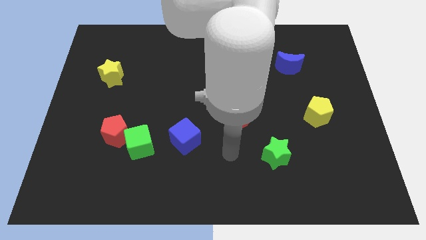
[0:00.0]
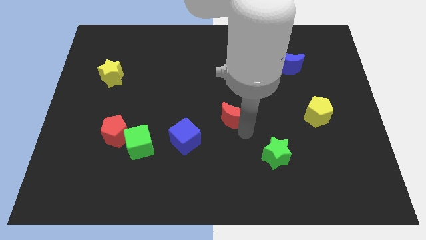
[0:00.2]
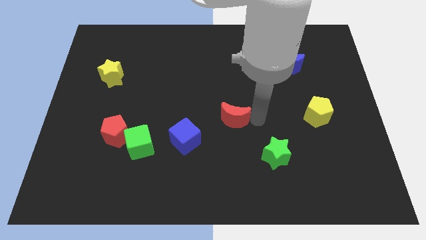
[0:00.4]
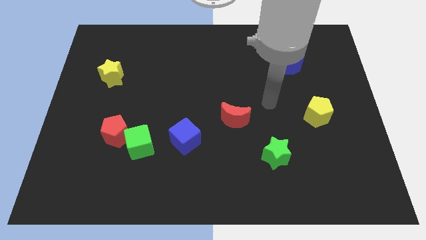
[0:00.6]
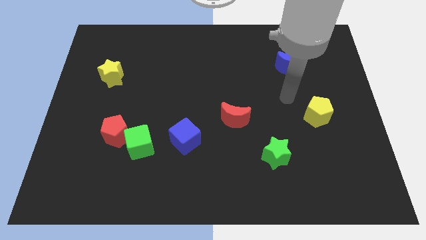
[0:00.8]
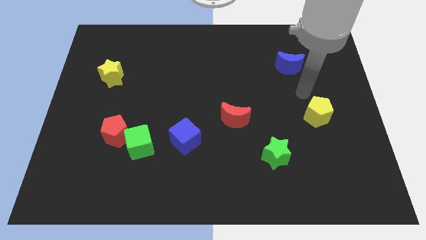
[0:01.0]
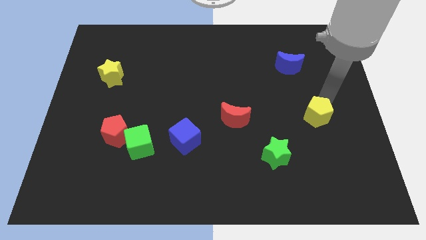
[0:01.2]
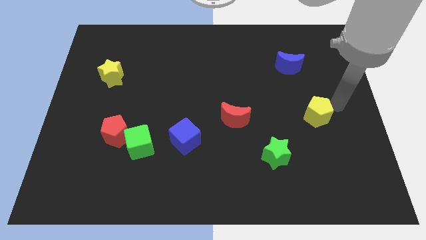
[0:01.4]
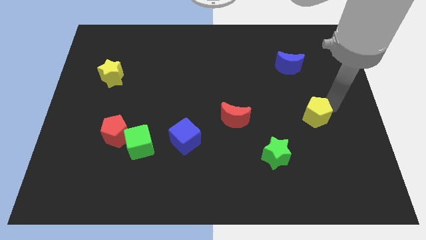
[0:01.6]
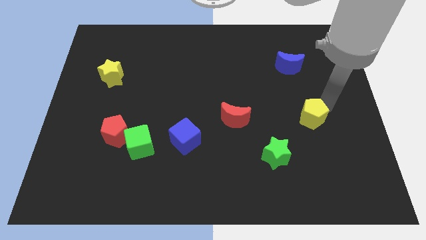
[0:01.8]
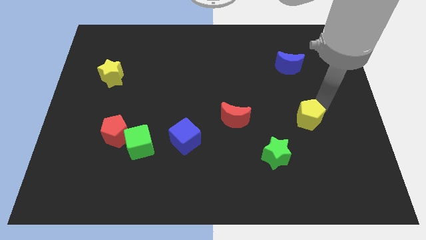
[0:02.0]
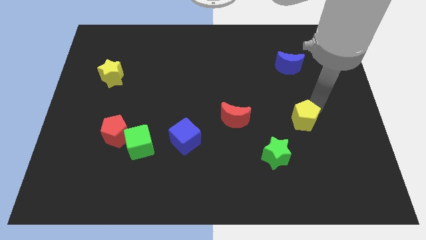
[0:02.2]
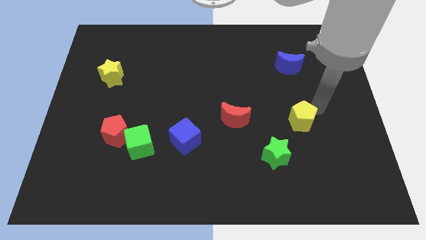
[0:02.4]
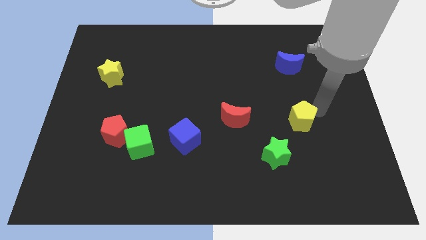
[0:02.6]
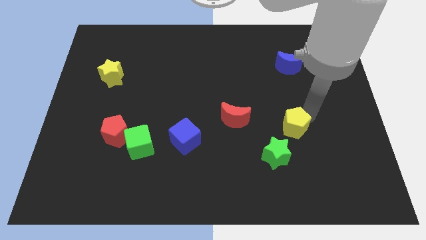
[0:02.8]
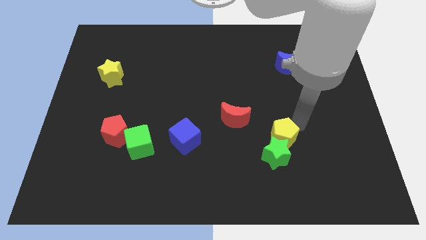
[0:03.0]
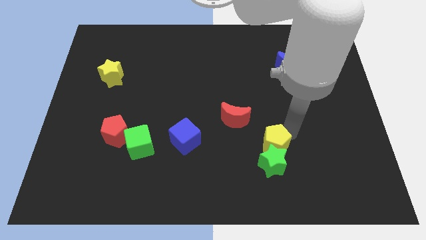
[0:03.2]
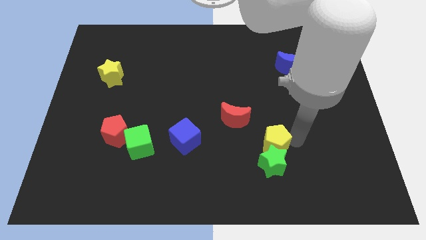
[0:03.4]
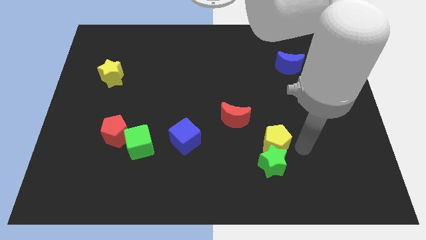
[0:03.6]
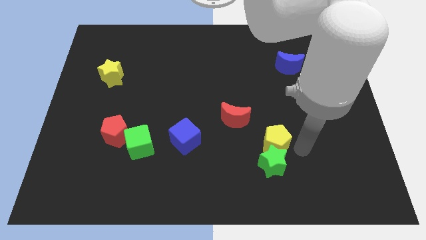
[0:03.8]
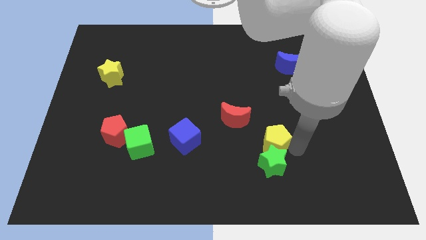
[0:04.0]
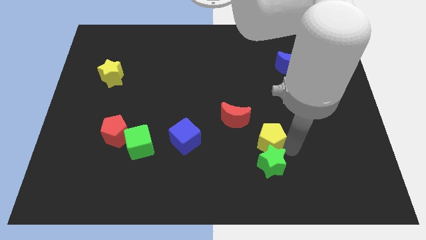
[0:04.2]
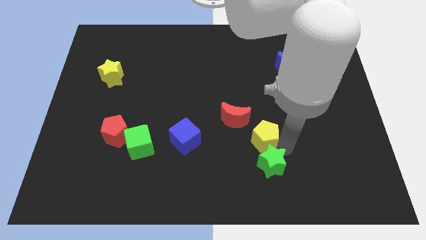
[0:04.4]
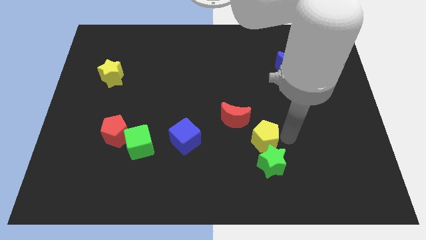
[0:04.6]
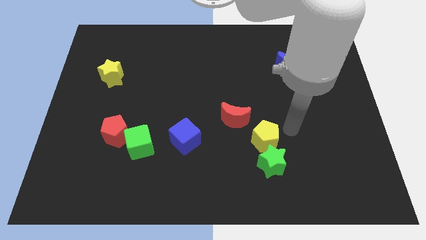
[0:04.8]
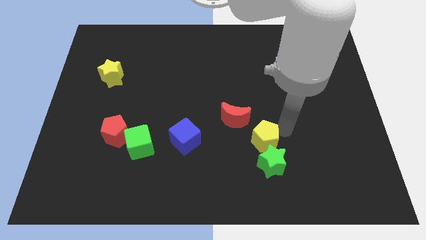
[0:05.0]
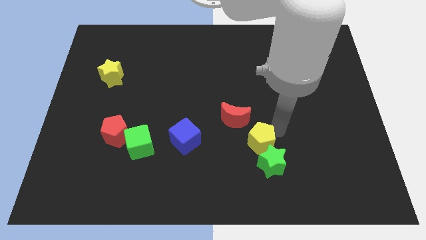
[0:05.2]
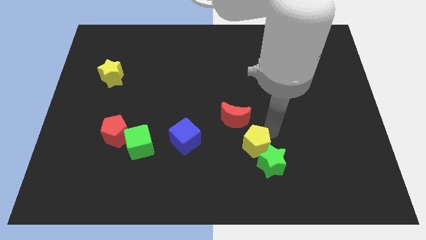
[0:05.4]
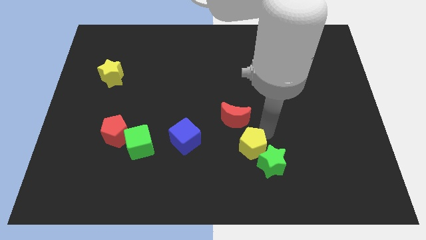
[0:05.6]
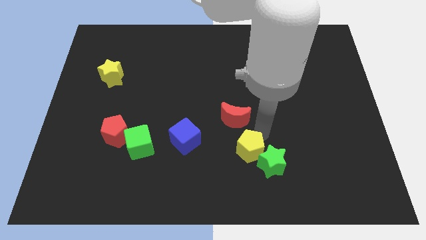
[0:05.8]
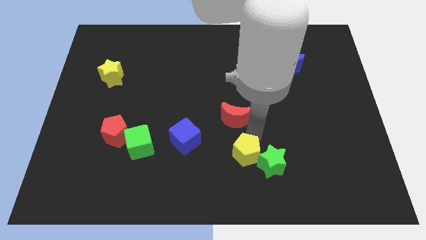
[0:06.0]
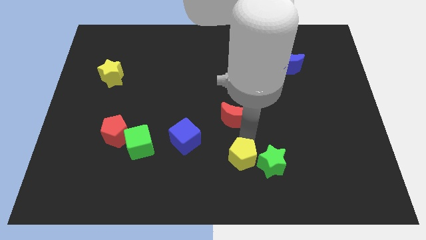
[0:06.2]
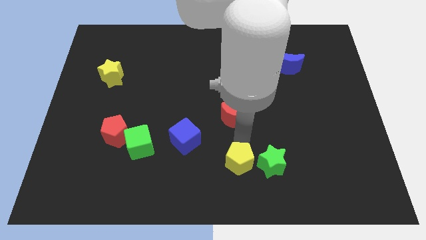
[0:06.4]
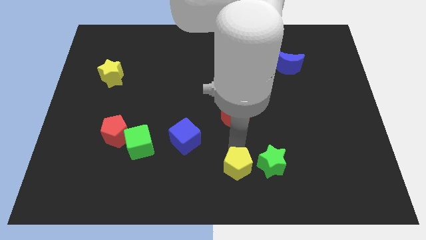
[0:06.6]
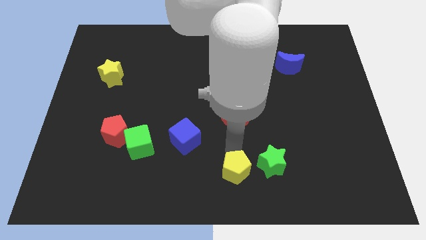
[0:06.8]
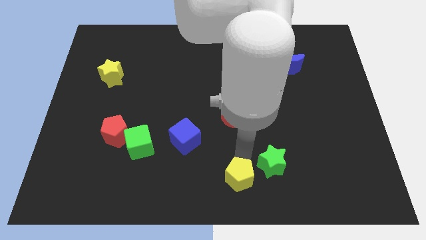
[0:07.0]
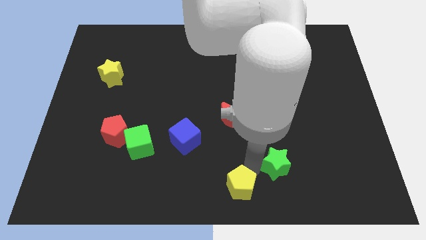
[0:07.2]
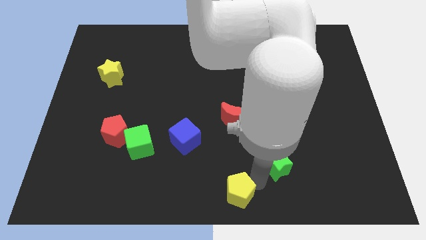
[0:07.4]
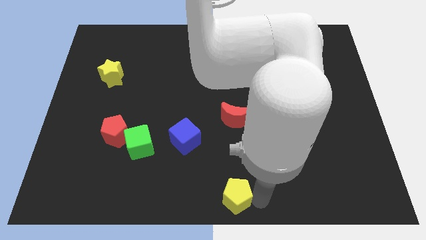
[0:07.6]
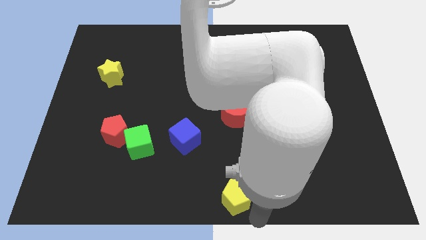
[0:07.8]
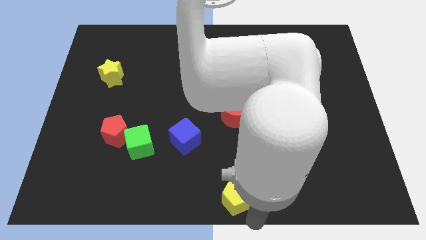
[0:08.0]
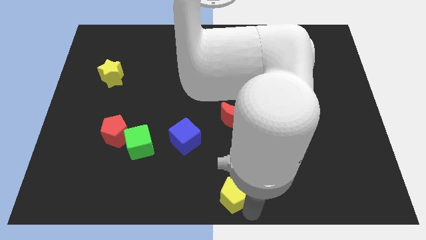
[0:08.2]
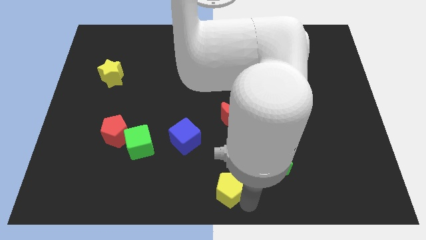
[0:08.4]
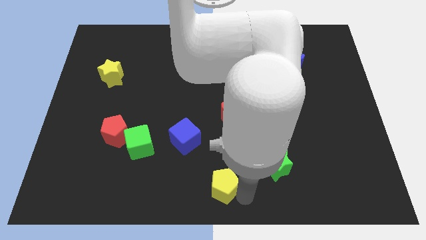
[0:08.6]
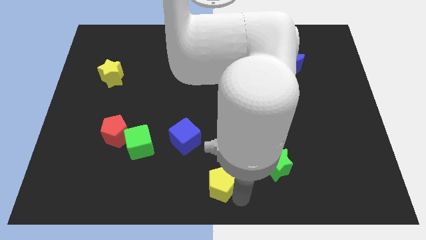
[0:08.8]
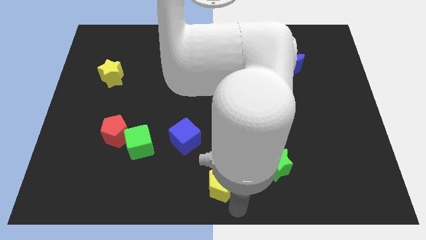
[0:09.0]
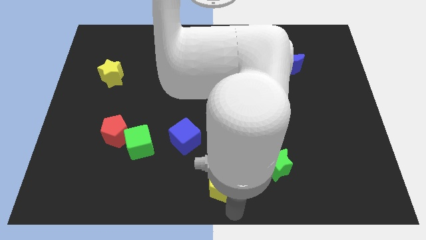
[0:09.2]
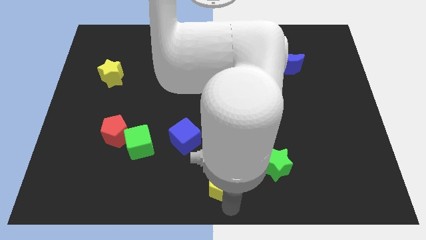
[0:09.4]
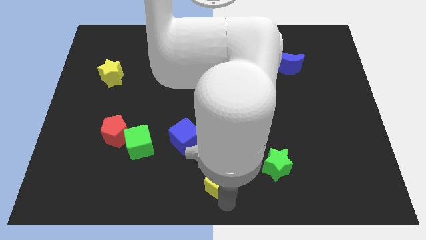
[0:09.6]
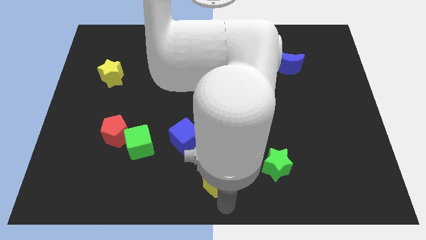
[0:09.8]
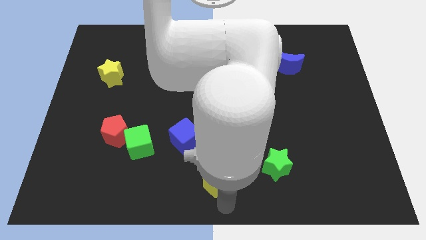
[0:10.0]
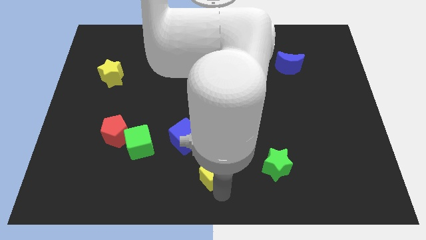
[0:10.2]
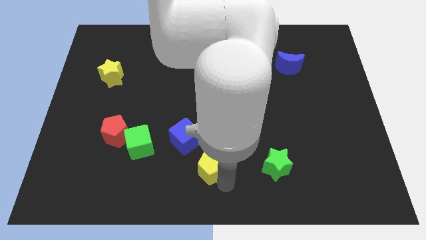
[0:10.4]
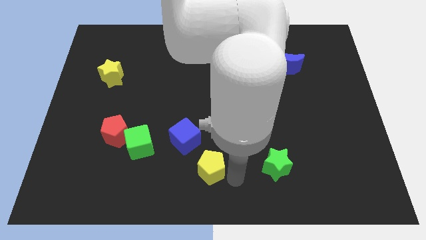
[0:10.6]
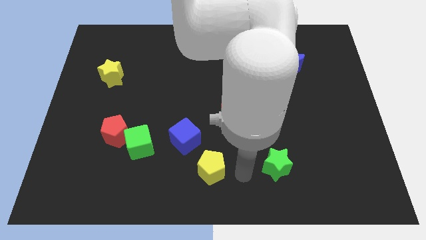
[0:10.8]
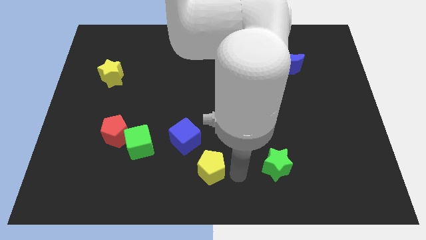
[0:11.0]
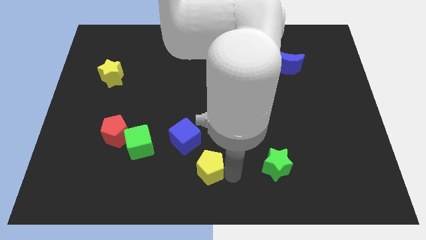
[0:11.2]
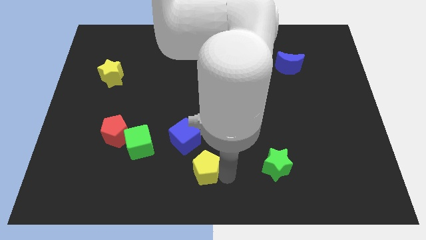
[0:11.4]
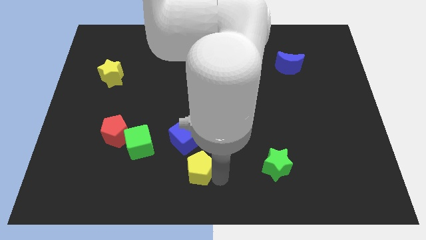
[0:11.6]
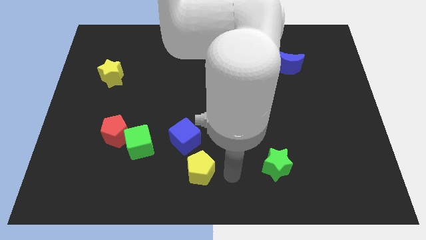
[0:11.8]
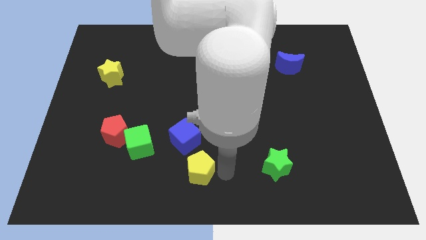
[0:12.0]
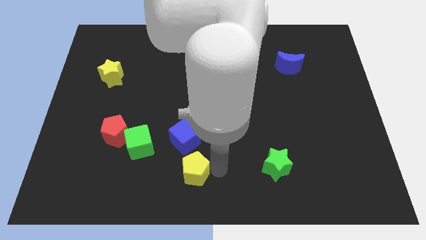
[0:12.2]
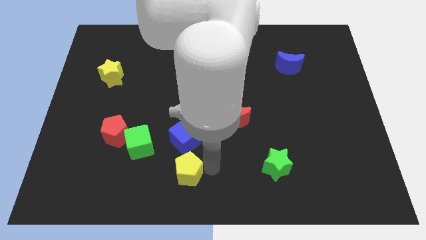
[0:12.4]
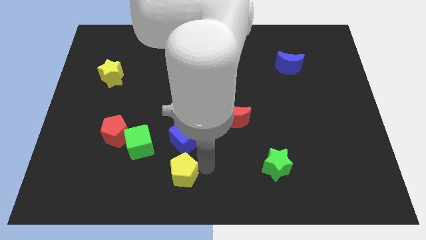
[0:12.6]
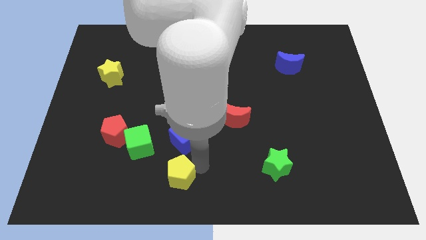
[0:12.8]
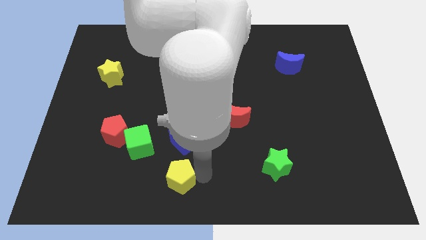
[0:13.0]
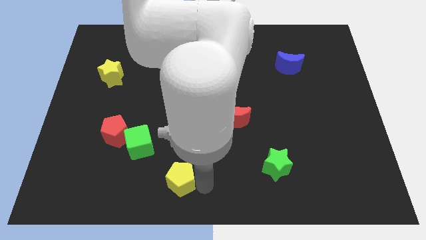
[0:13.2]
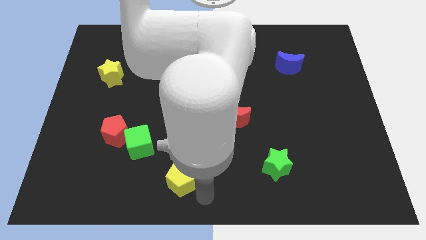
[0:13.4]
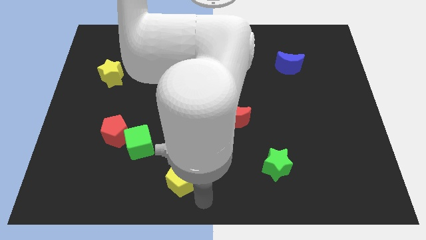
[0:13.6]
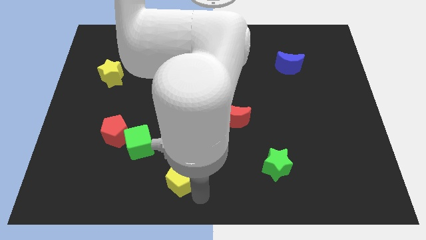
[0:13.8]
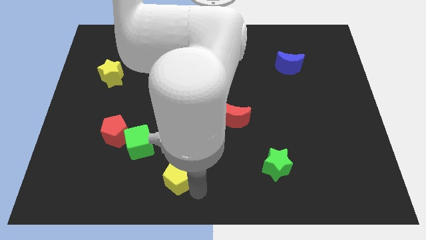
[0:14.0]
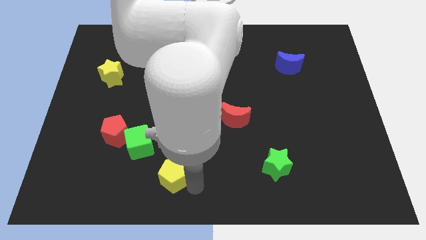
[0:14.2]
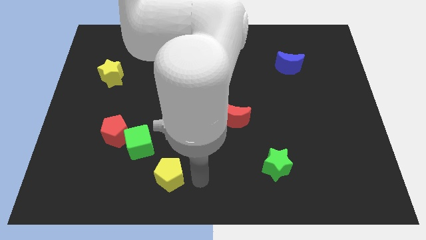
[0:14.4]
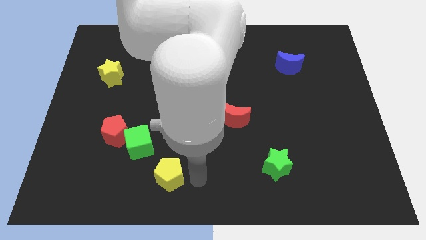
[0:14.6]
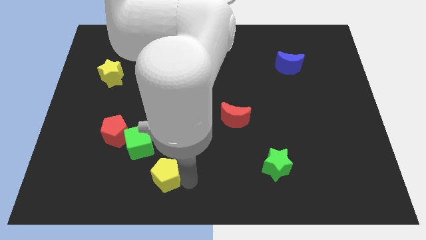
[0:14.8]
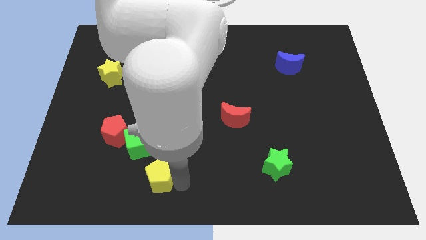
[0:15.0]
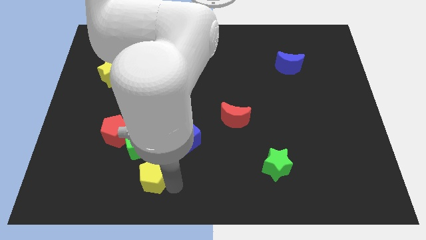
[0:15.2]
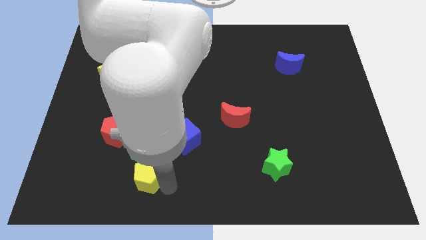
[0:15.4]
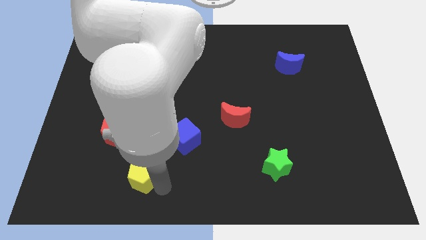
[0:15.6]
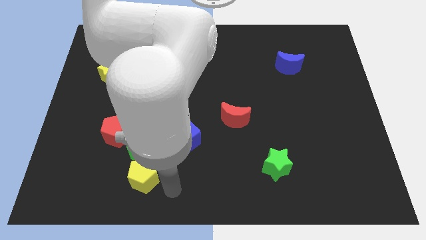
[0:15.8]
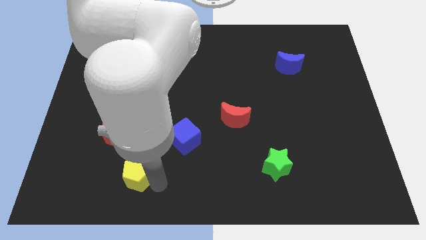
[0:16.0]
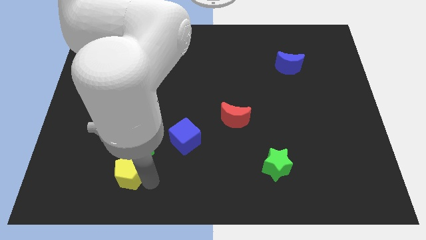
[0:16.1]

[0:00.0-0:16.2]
push the yellow pentagon to the bottom left of the green cube
